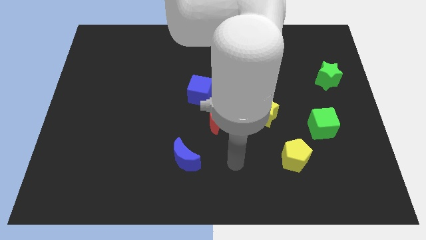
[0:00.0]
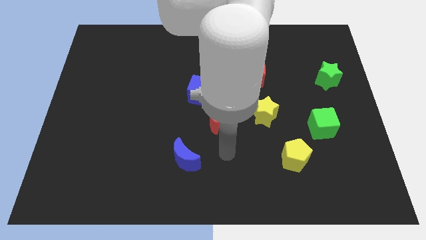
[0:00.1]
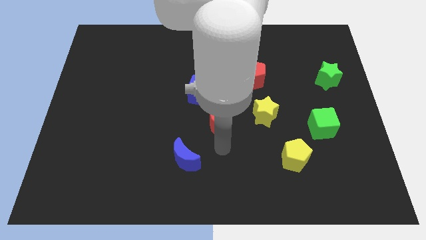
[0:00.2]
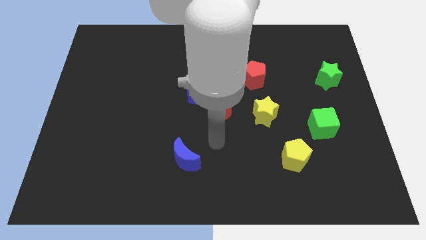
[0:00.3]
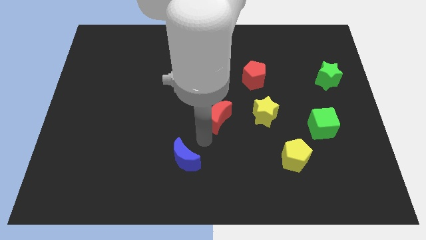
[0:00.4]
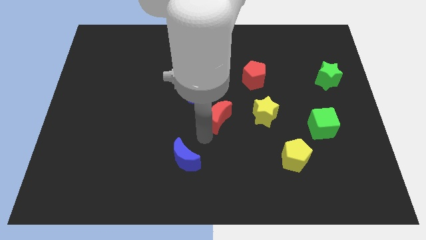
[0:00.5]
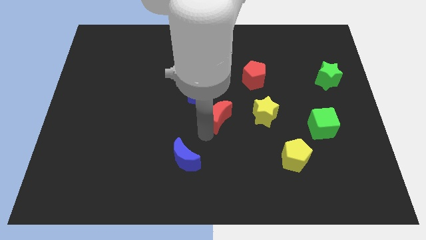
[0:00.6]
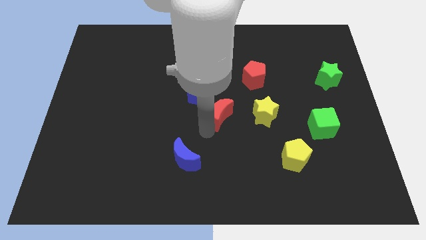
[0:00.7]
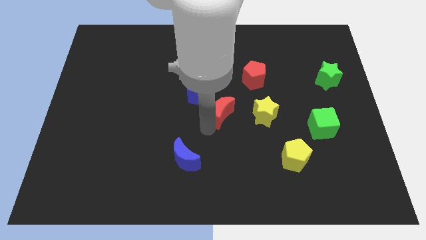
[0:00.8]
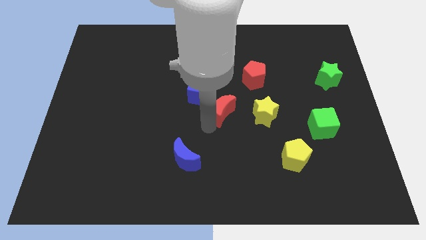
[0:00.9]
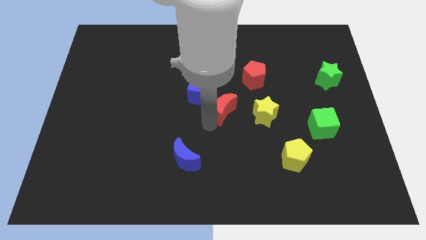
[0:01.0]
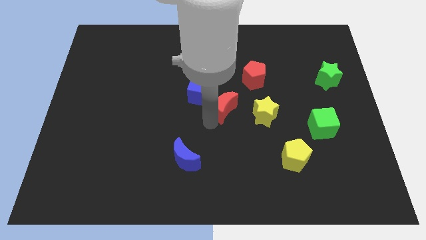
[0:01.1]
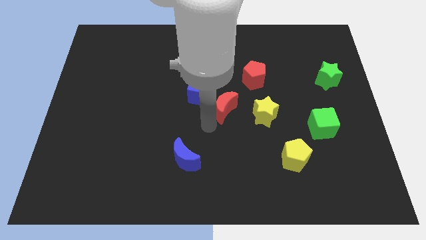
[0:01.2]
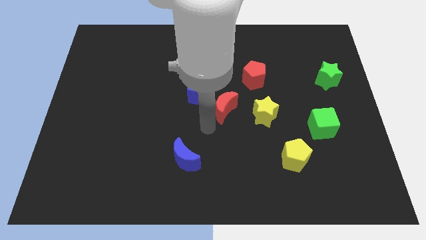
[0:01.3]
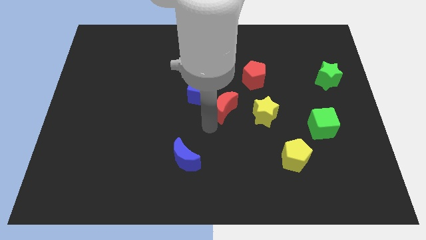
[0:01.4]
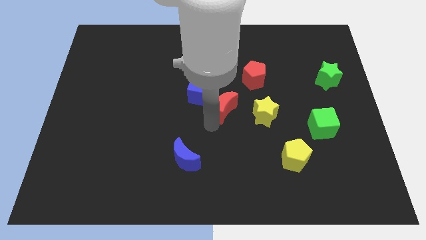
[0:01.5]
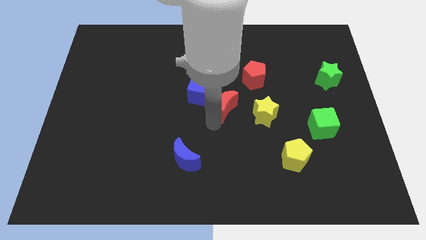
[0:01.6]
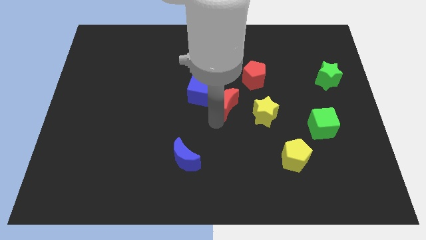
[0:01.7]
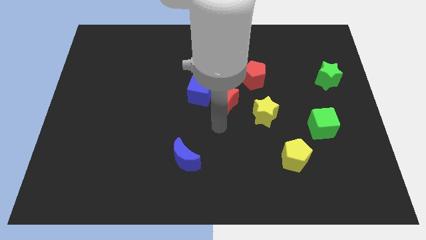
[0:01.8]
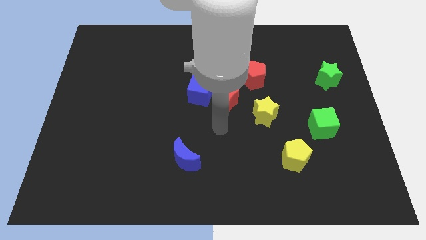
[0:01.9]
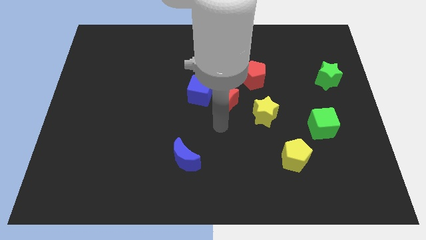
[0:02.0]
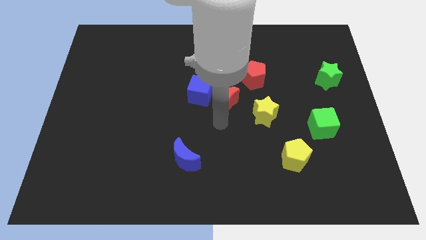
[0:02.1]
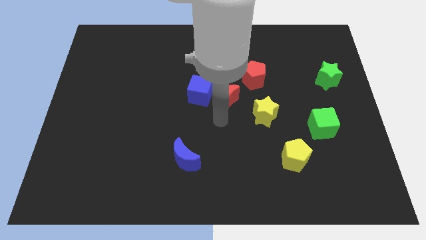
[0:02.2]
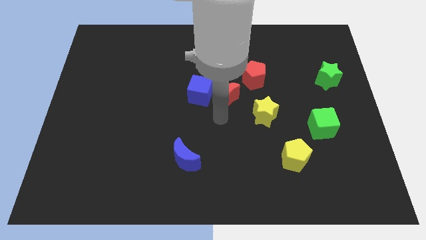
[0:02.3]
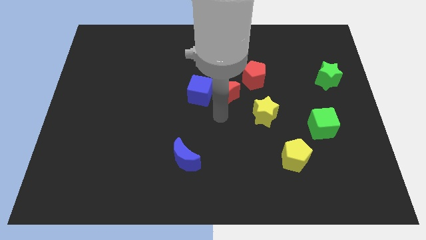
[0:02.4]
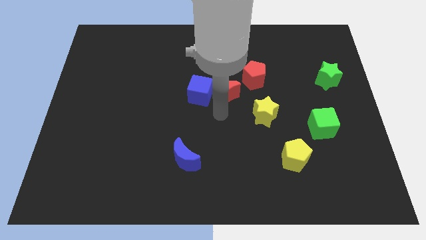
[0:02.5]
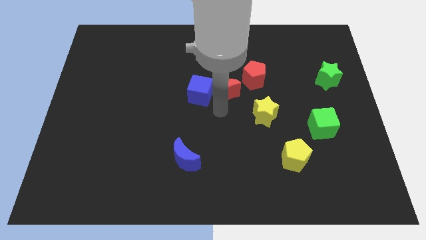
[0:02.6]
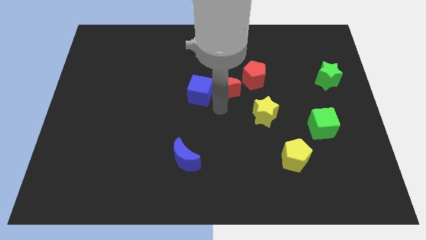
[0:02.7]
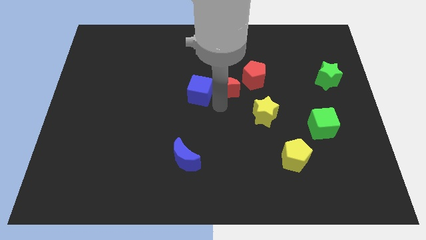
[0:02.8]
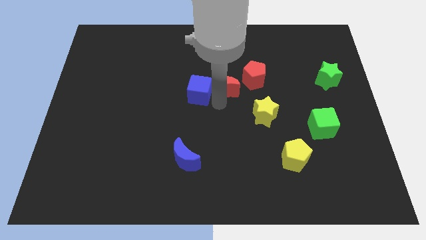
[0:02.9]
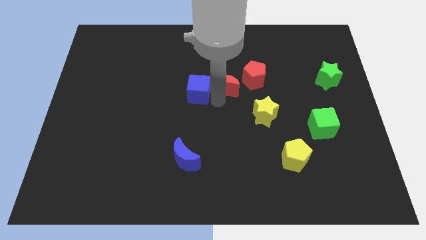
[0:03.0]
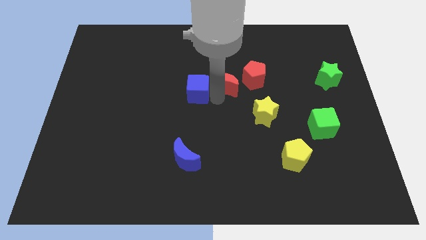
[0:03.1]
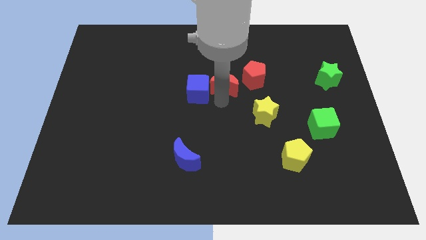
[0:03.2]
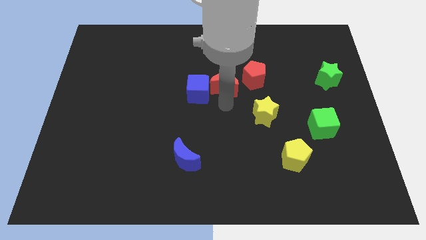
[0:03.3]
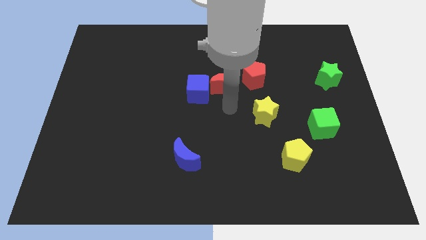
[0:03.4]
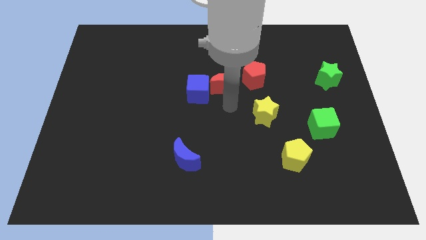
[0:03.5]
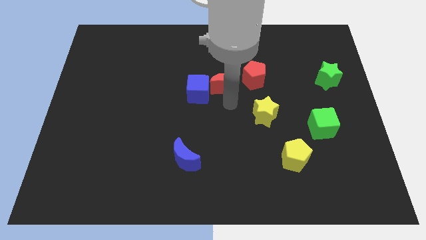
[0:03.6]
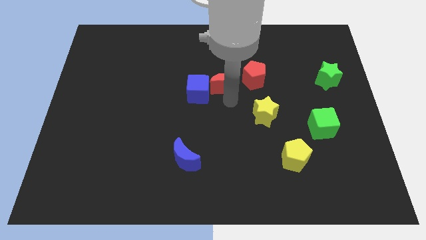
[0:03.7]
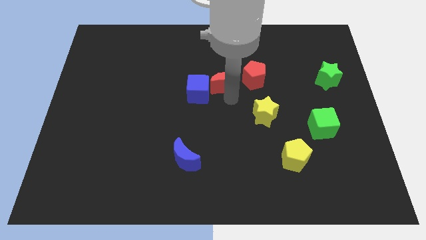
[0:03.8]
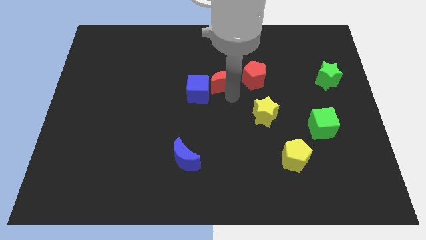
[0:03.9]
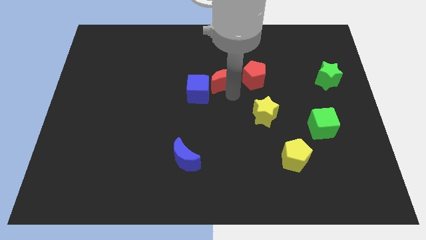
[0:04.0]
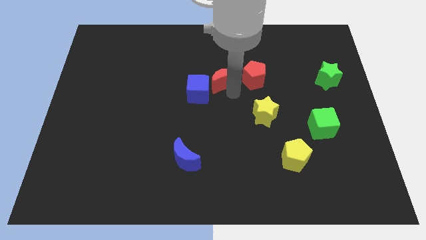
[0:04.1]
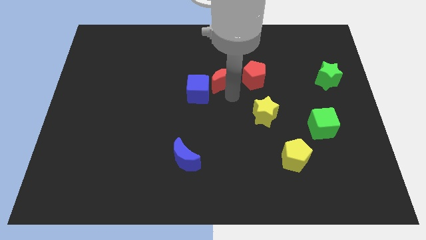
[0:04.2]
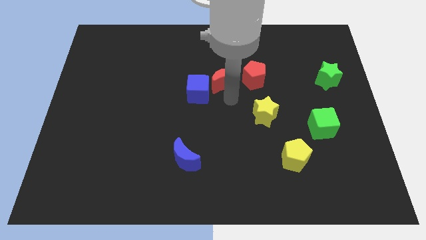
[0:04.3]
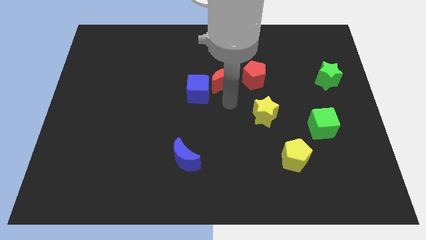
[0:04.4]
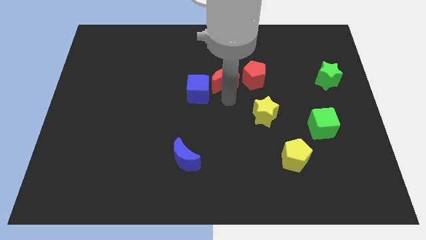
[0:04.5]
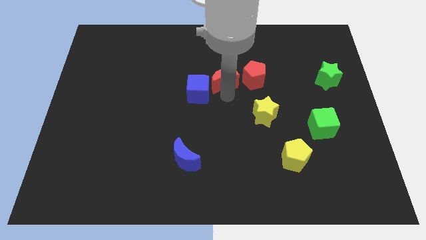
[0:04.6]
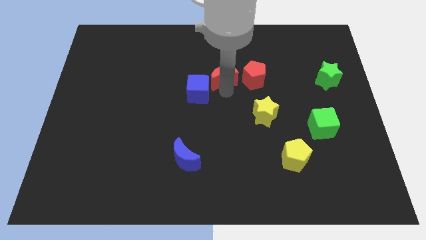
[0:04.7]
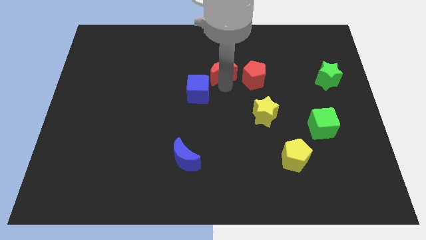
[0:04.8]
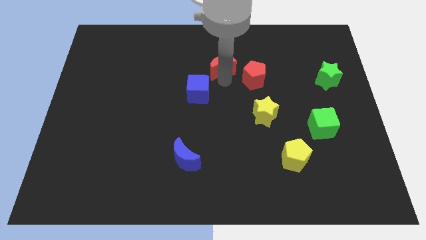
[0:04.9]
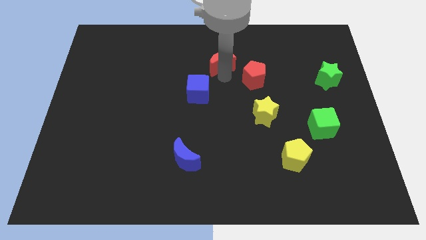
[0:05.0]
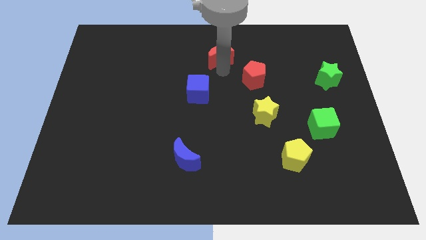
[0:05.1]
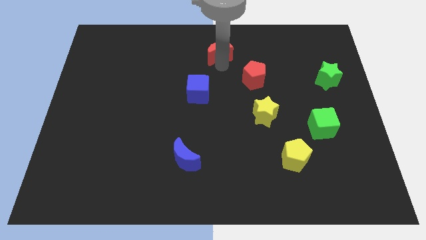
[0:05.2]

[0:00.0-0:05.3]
slide the red moon to the top

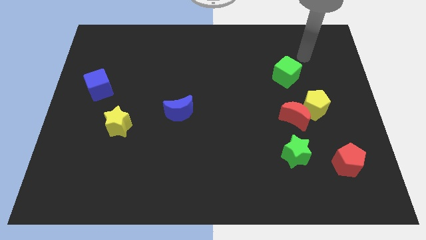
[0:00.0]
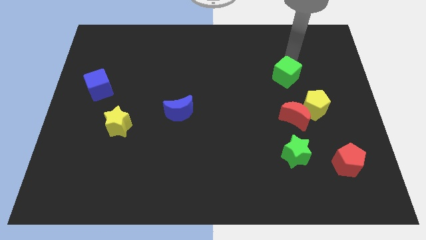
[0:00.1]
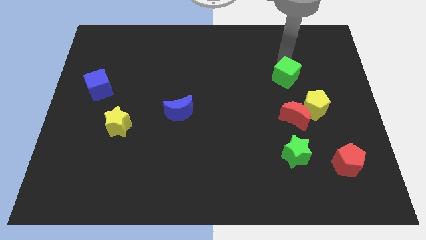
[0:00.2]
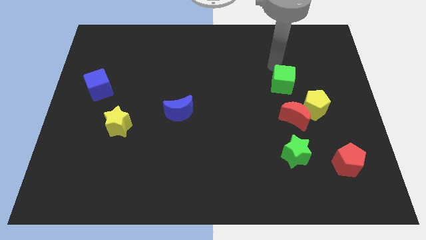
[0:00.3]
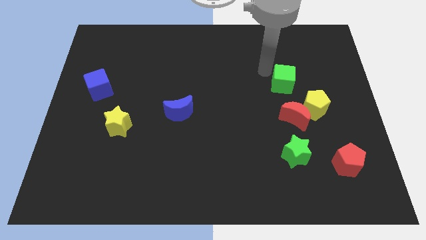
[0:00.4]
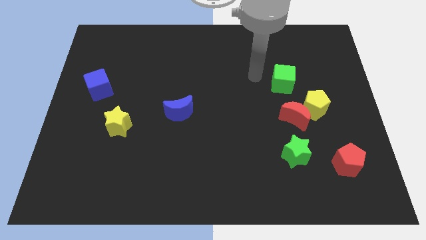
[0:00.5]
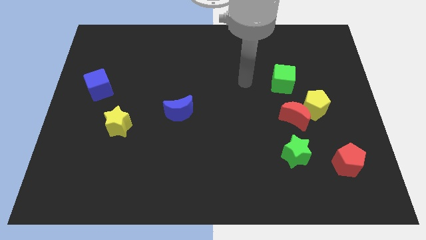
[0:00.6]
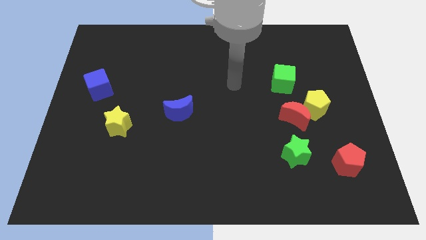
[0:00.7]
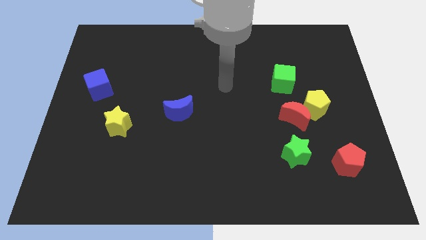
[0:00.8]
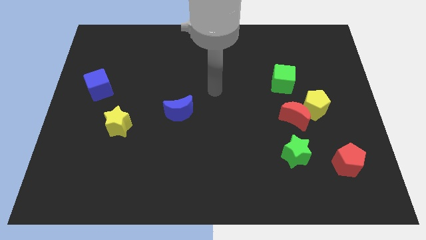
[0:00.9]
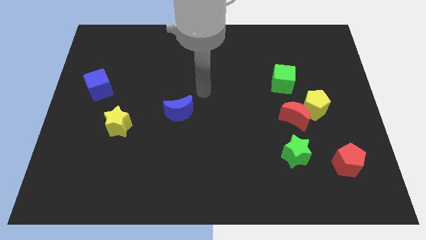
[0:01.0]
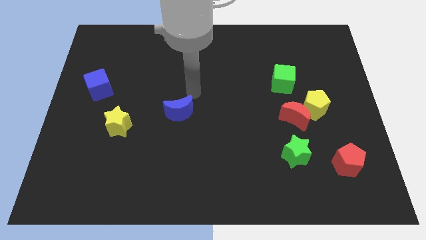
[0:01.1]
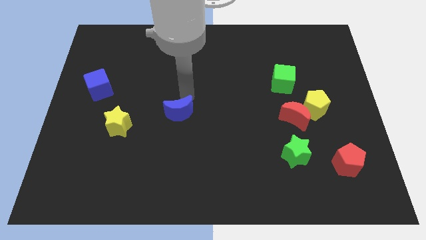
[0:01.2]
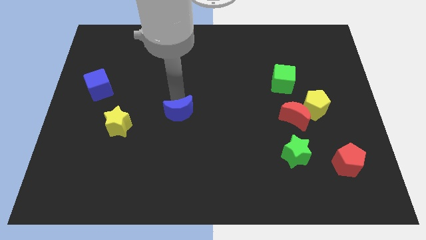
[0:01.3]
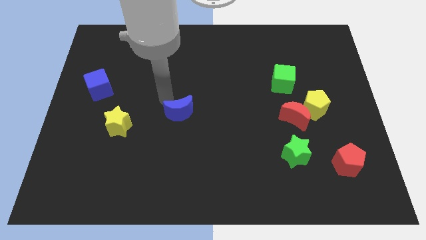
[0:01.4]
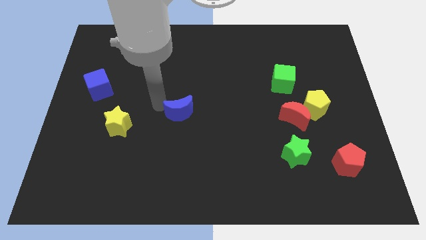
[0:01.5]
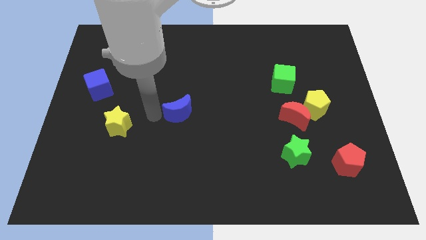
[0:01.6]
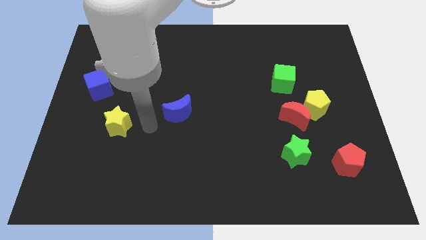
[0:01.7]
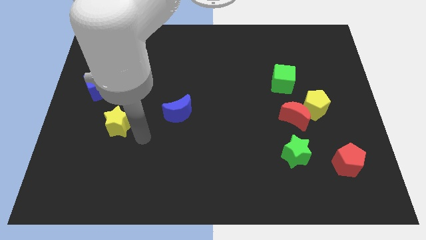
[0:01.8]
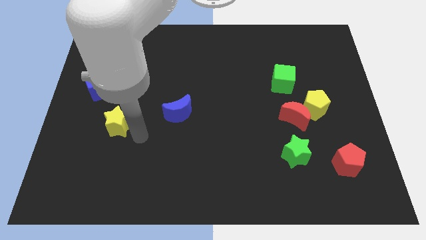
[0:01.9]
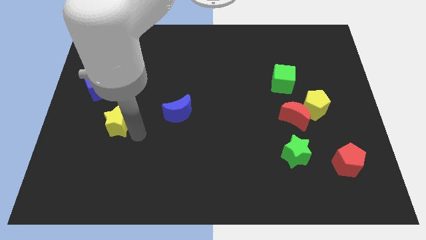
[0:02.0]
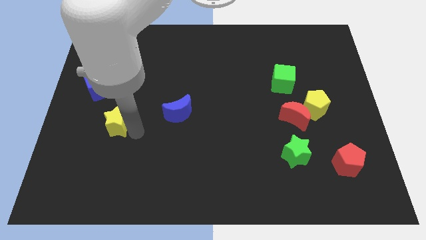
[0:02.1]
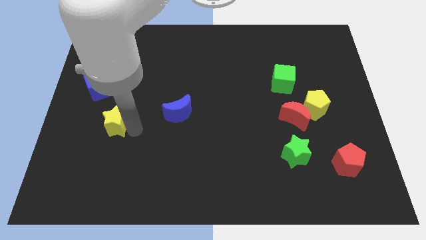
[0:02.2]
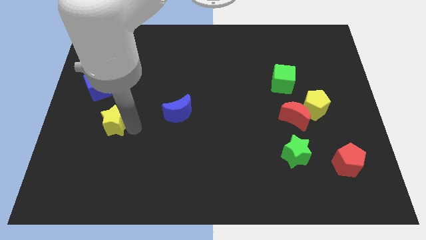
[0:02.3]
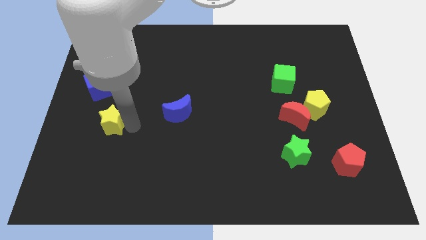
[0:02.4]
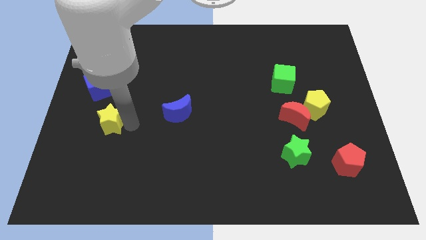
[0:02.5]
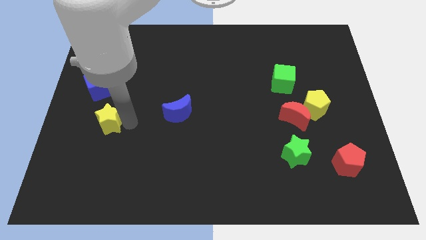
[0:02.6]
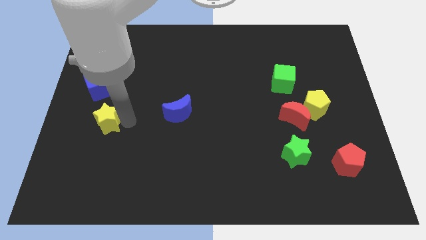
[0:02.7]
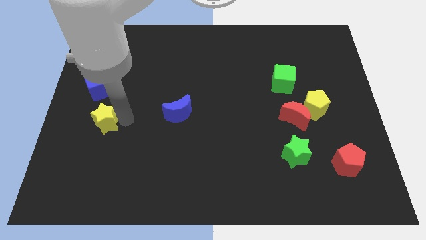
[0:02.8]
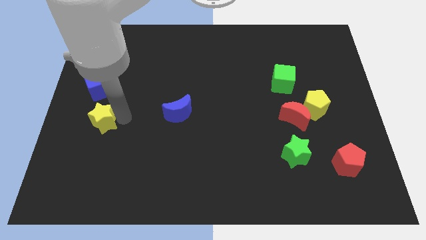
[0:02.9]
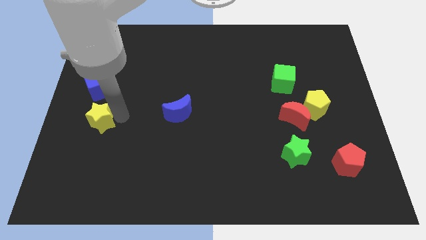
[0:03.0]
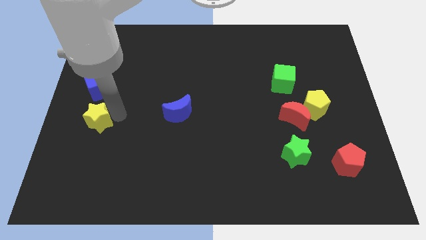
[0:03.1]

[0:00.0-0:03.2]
move the yellow star to the left side of the board
